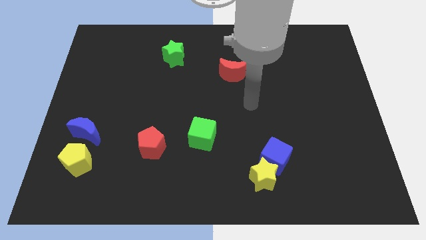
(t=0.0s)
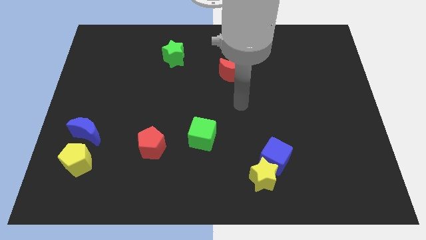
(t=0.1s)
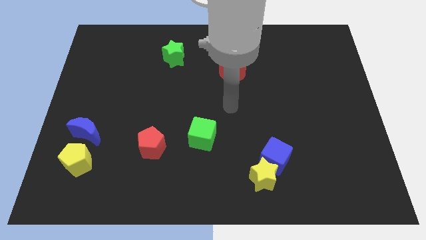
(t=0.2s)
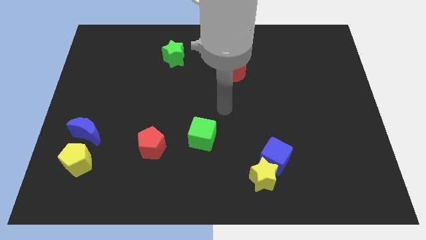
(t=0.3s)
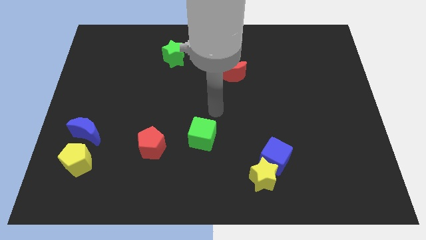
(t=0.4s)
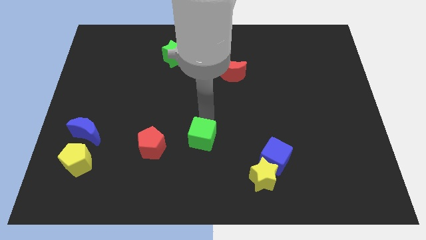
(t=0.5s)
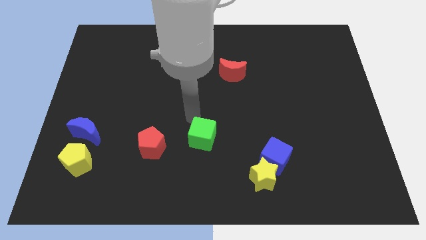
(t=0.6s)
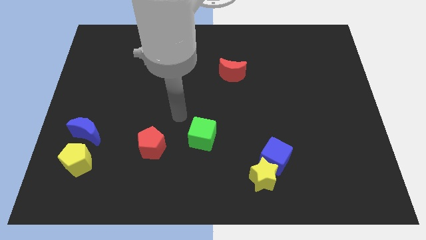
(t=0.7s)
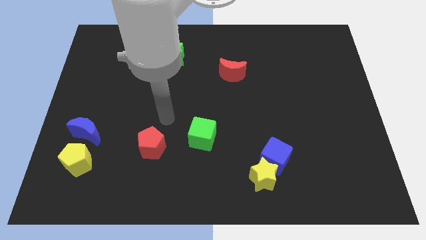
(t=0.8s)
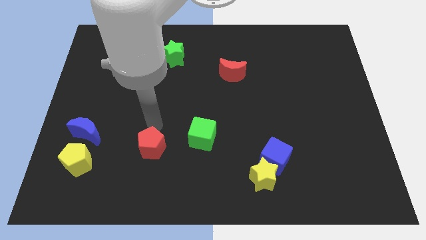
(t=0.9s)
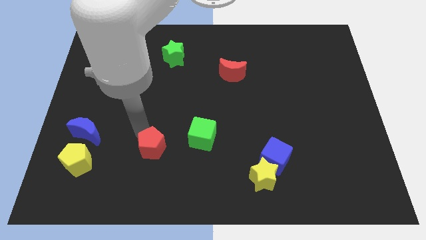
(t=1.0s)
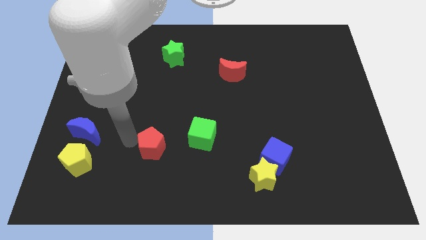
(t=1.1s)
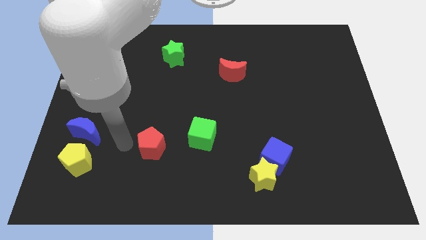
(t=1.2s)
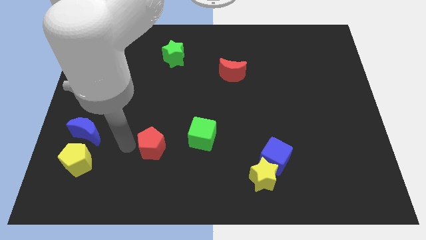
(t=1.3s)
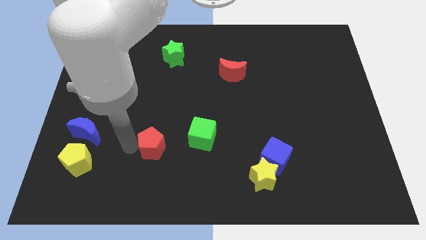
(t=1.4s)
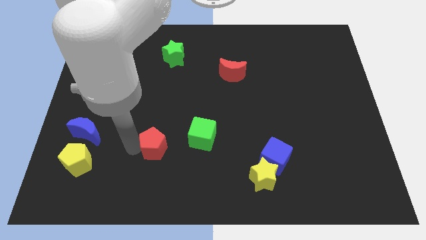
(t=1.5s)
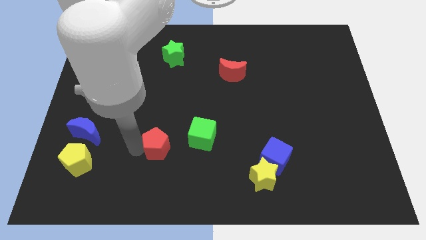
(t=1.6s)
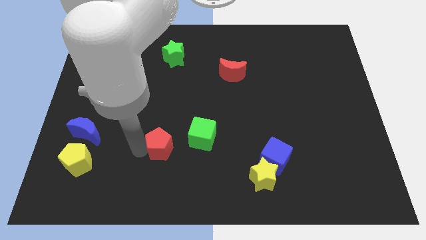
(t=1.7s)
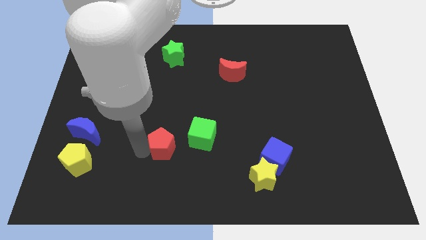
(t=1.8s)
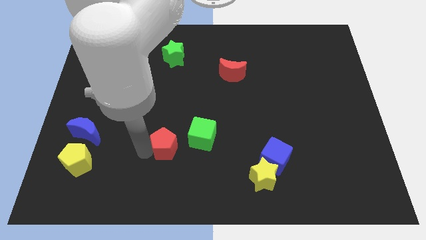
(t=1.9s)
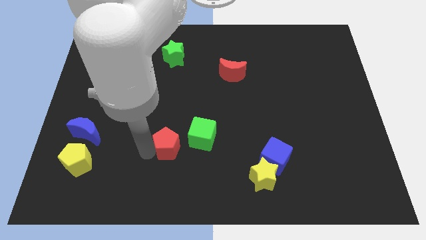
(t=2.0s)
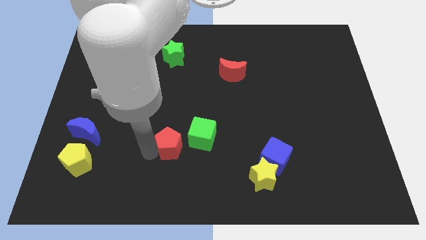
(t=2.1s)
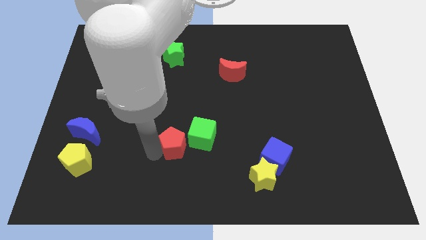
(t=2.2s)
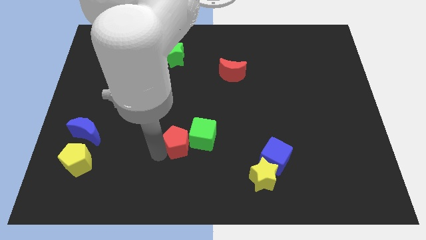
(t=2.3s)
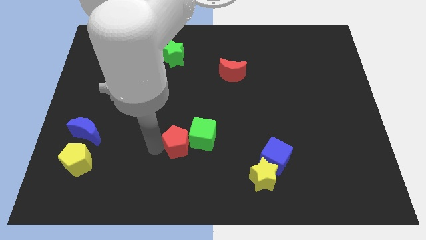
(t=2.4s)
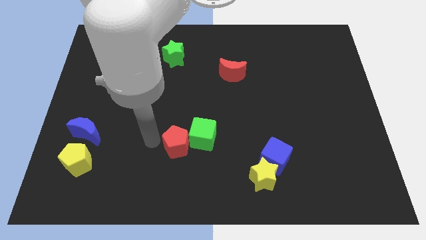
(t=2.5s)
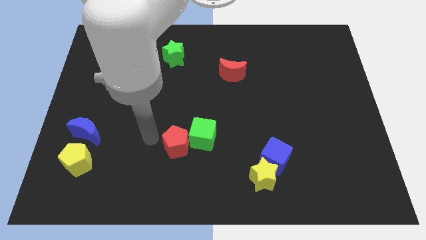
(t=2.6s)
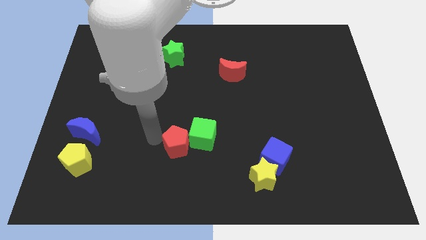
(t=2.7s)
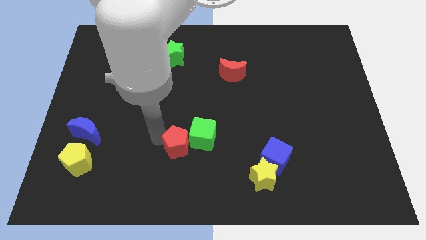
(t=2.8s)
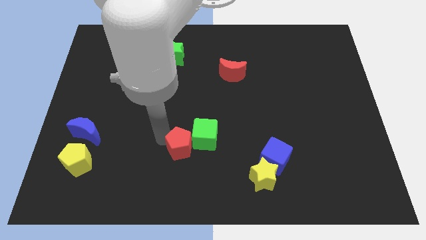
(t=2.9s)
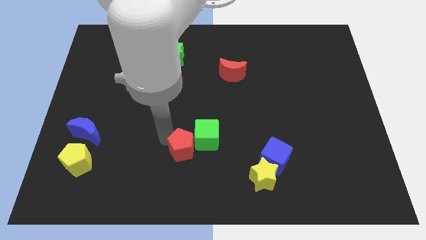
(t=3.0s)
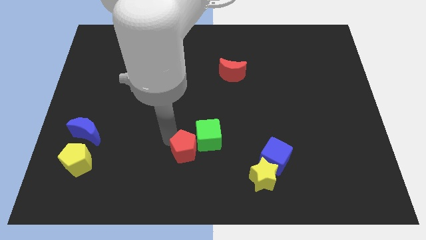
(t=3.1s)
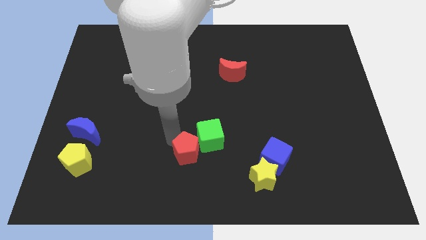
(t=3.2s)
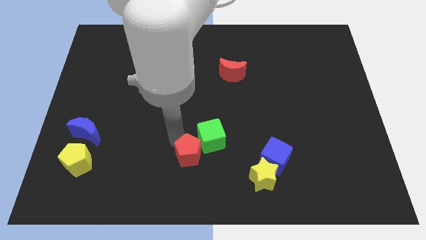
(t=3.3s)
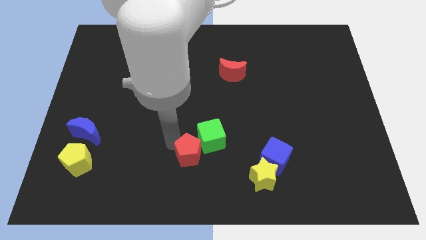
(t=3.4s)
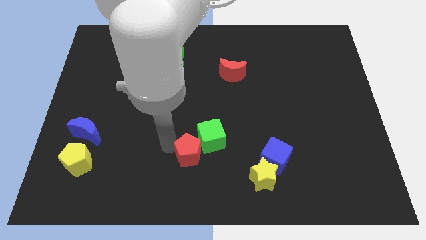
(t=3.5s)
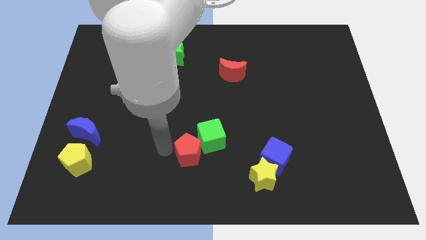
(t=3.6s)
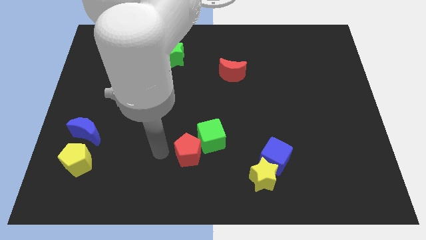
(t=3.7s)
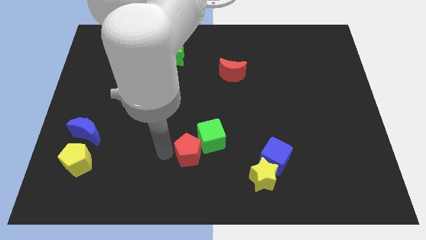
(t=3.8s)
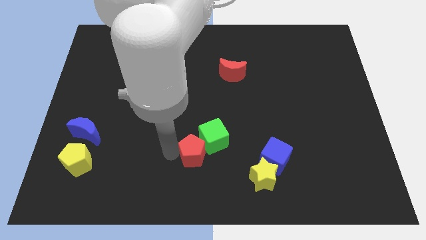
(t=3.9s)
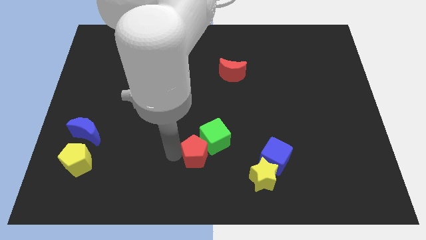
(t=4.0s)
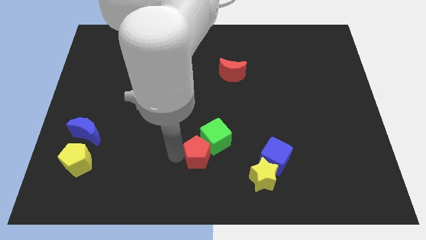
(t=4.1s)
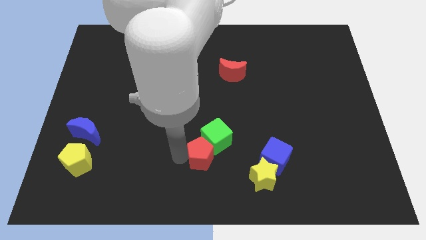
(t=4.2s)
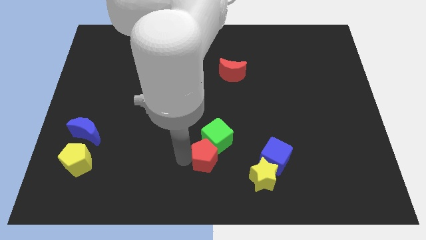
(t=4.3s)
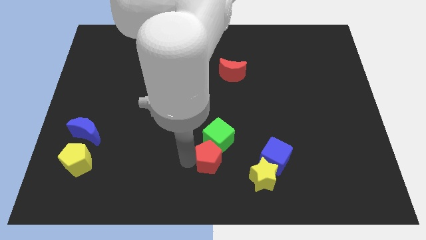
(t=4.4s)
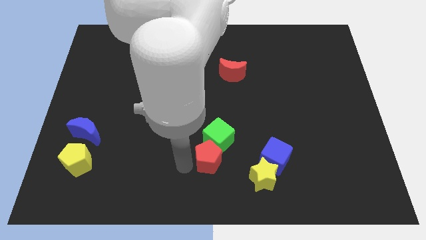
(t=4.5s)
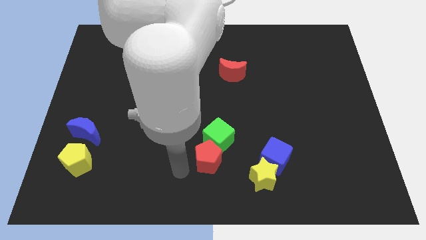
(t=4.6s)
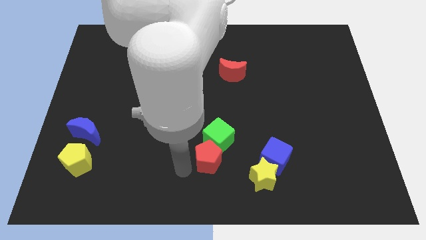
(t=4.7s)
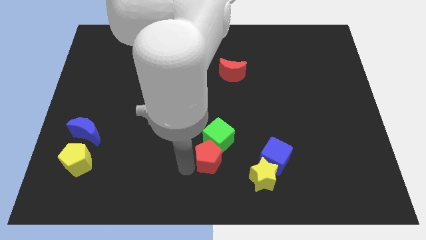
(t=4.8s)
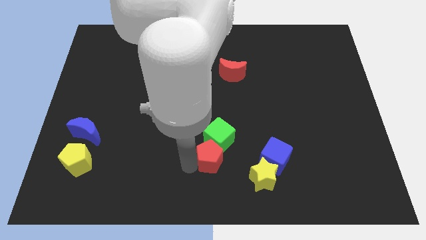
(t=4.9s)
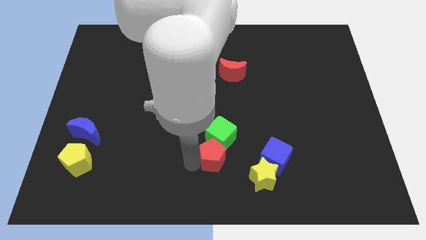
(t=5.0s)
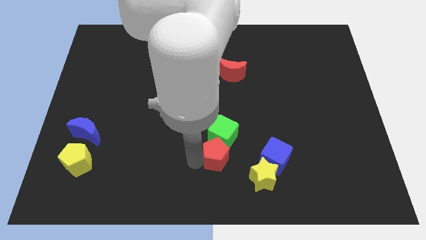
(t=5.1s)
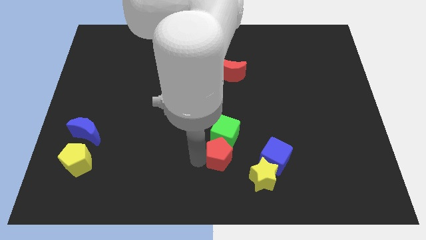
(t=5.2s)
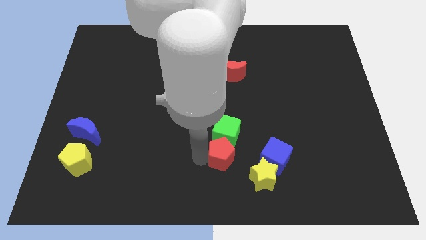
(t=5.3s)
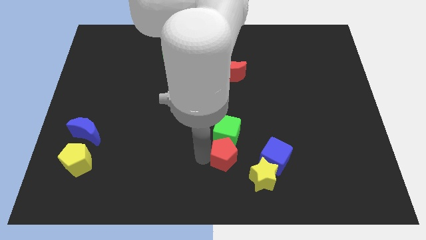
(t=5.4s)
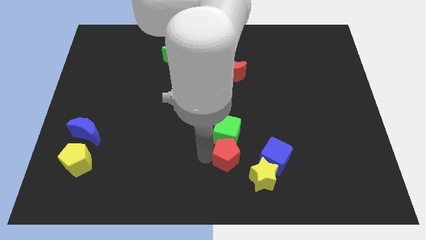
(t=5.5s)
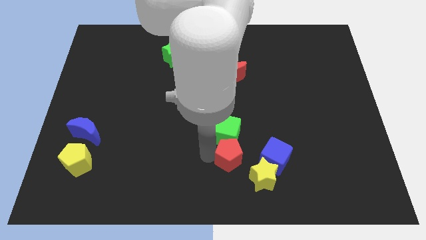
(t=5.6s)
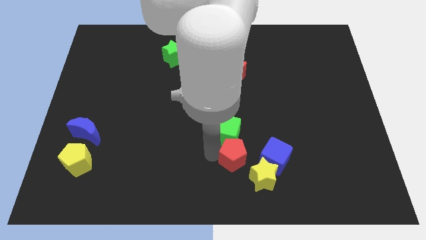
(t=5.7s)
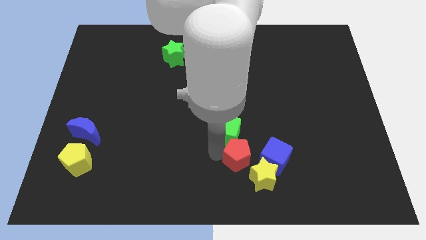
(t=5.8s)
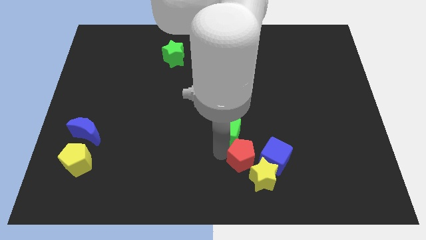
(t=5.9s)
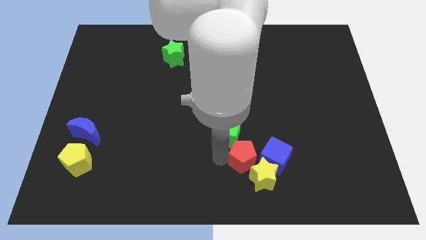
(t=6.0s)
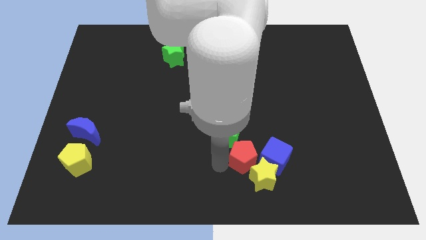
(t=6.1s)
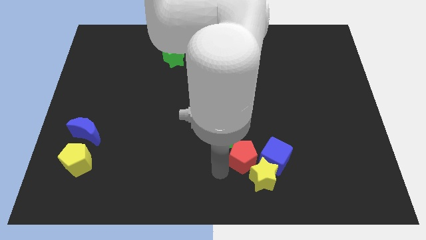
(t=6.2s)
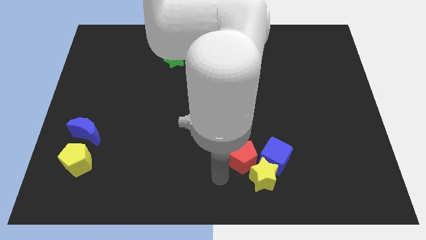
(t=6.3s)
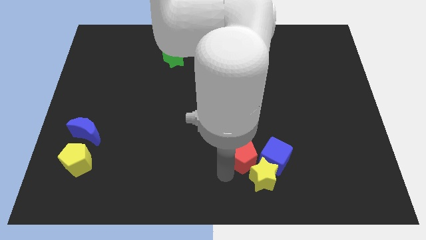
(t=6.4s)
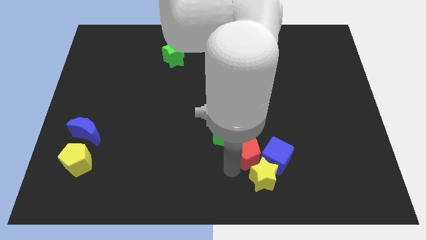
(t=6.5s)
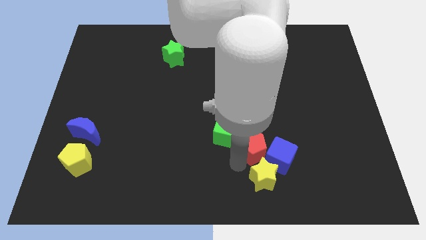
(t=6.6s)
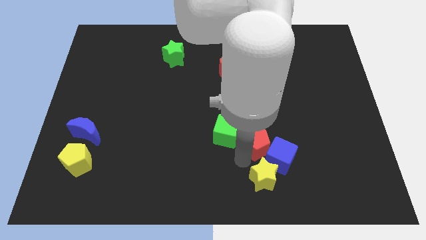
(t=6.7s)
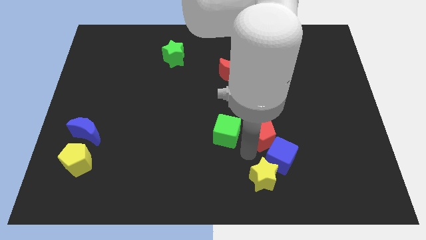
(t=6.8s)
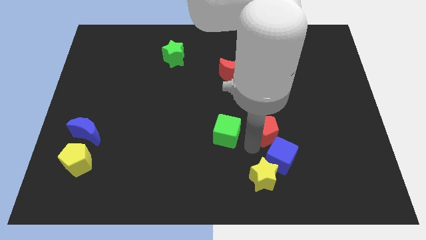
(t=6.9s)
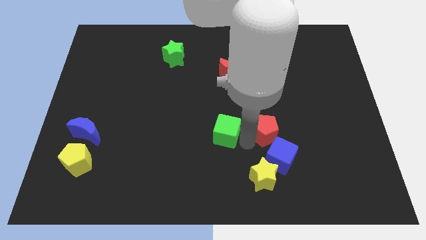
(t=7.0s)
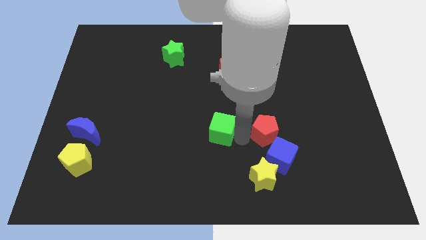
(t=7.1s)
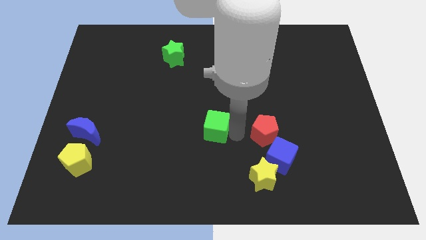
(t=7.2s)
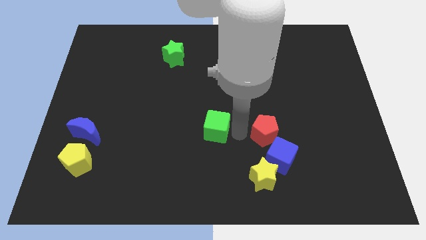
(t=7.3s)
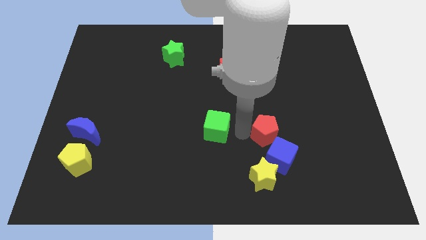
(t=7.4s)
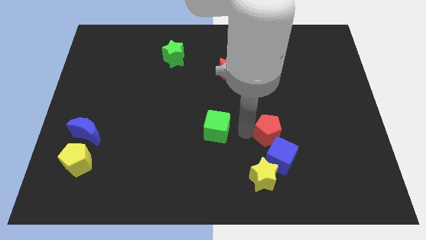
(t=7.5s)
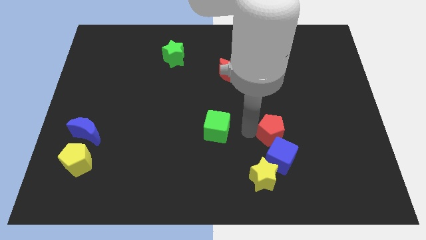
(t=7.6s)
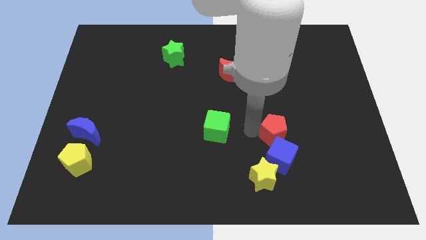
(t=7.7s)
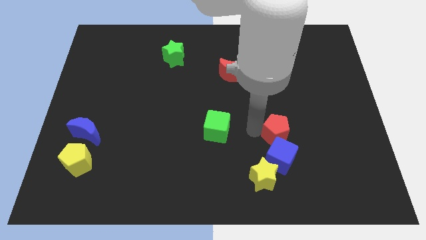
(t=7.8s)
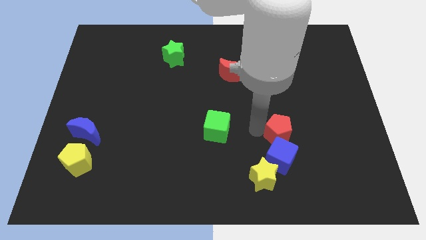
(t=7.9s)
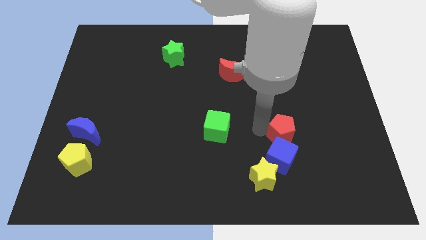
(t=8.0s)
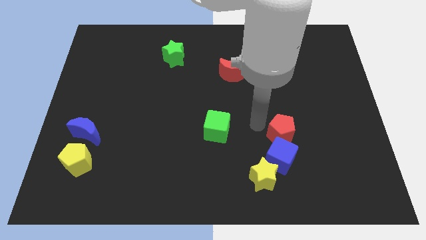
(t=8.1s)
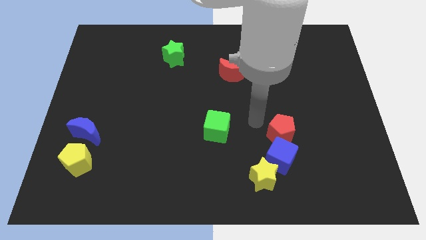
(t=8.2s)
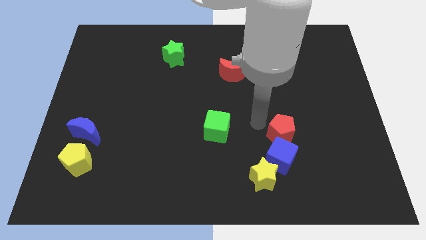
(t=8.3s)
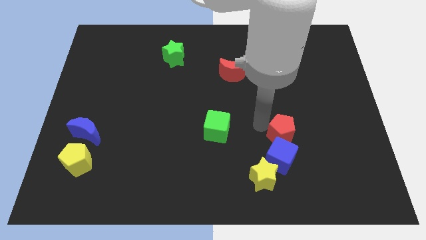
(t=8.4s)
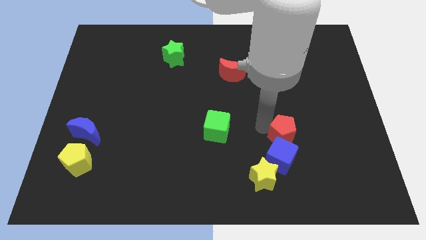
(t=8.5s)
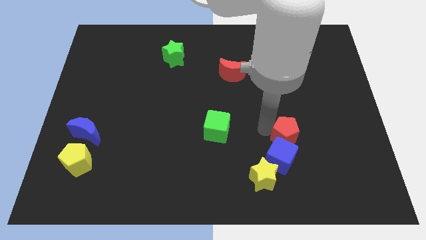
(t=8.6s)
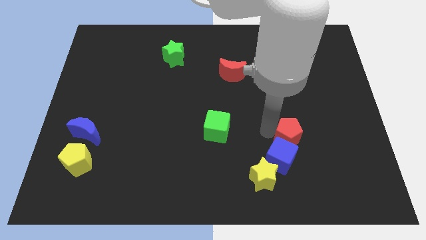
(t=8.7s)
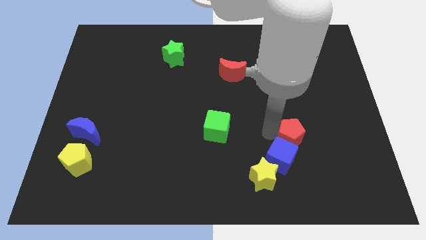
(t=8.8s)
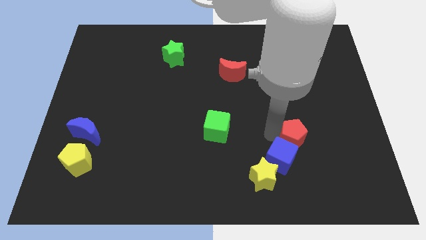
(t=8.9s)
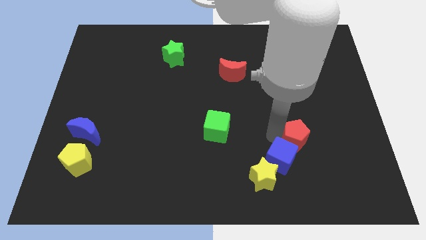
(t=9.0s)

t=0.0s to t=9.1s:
push the red pentagon to the right side of the blue cube
